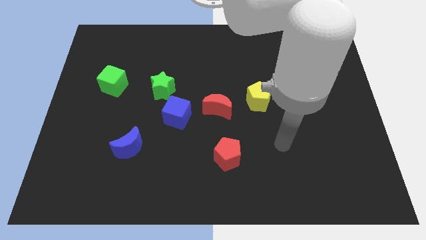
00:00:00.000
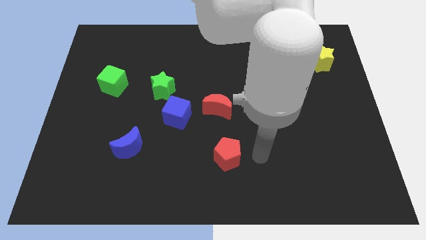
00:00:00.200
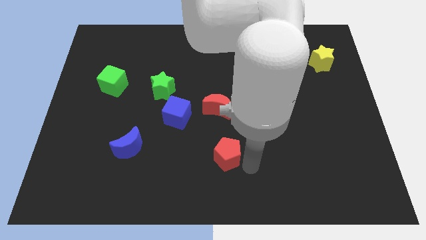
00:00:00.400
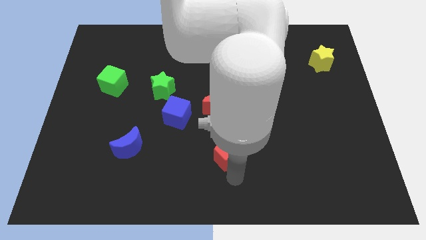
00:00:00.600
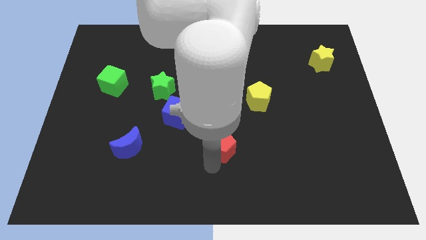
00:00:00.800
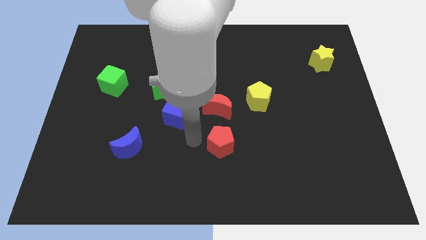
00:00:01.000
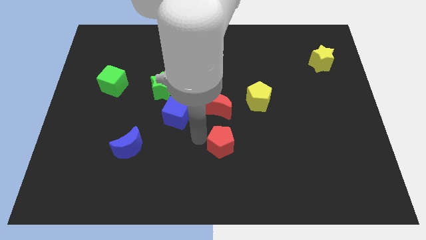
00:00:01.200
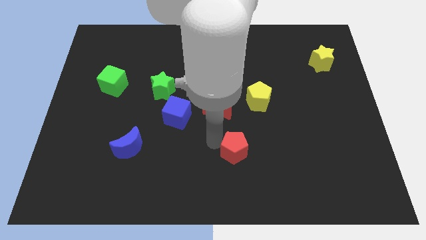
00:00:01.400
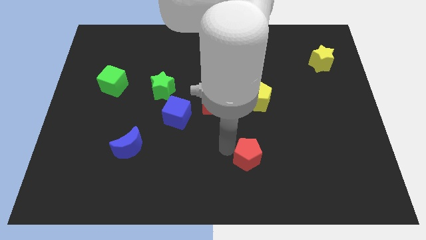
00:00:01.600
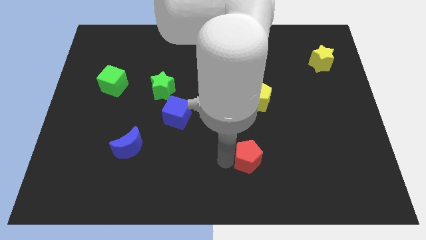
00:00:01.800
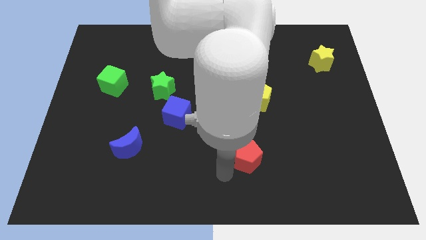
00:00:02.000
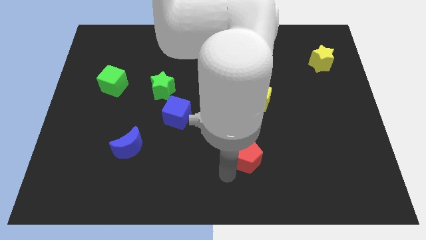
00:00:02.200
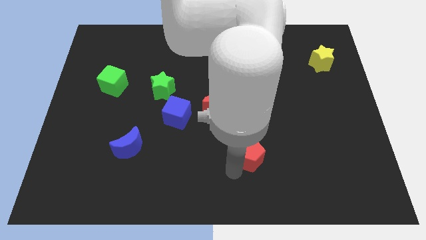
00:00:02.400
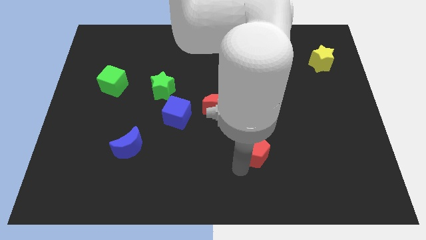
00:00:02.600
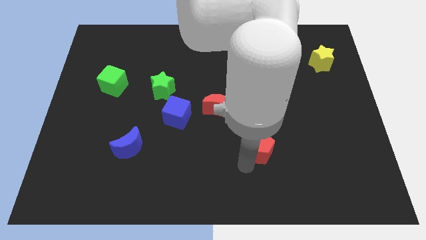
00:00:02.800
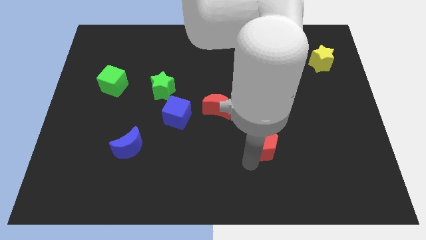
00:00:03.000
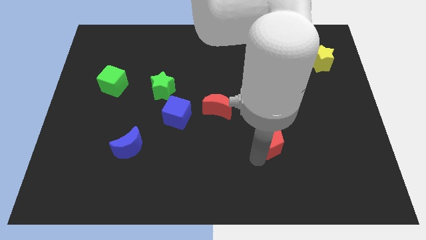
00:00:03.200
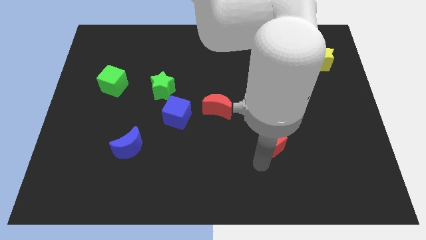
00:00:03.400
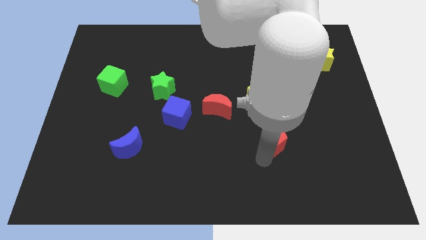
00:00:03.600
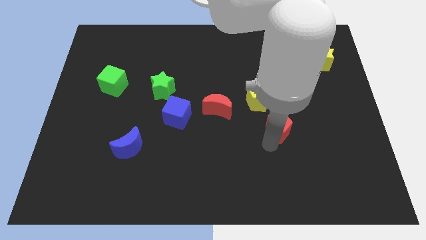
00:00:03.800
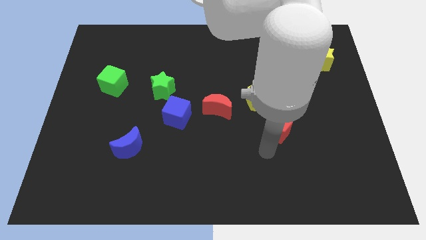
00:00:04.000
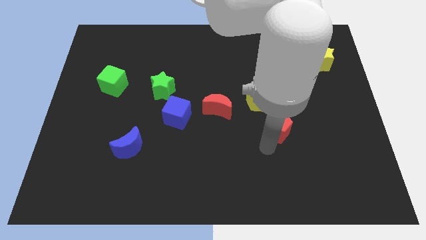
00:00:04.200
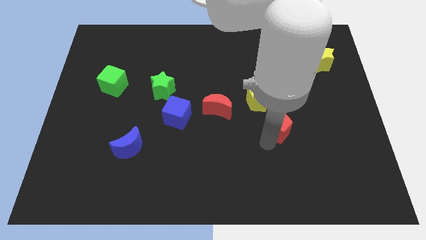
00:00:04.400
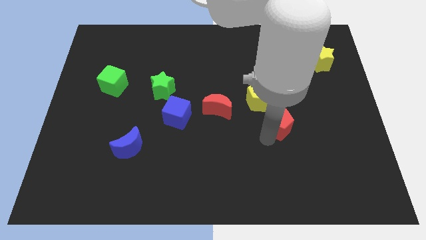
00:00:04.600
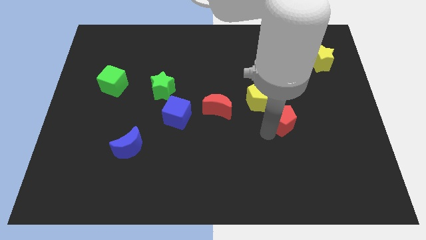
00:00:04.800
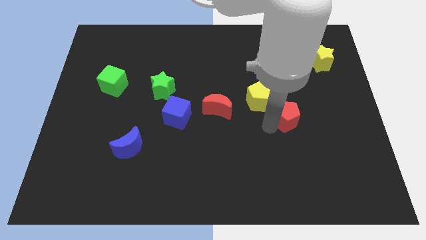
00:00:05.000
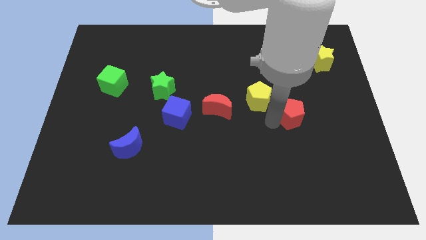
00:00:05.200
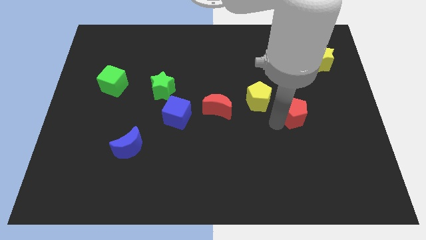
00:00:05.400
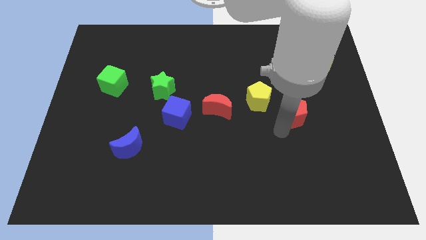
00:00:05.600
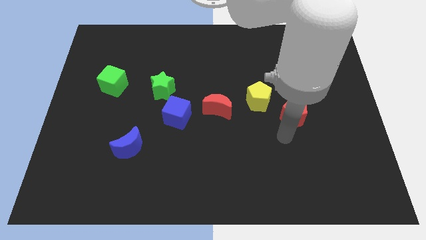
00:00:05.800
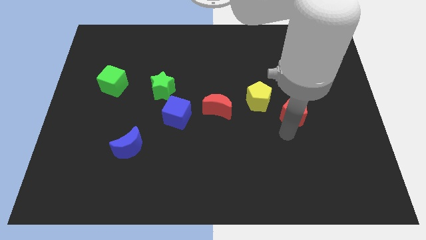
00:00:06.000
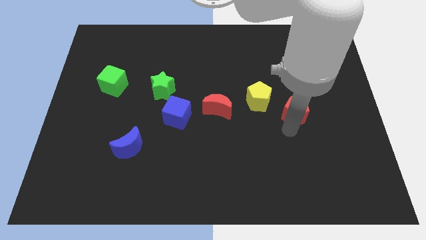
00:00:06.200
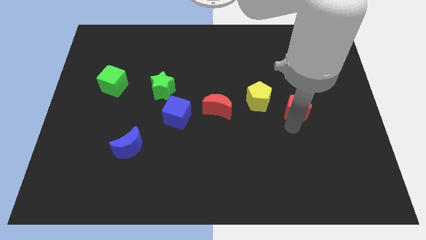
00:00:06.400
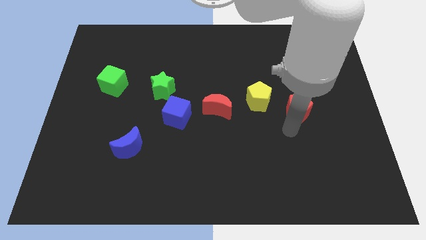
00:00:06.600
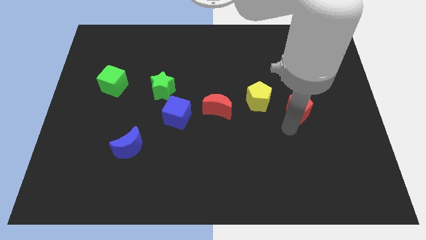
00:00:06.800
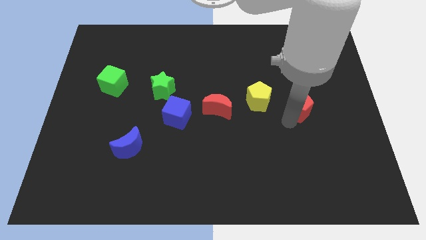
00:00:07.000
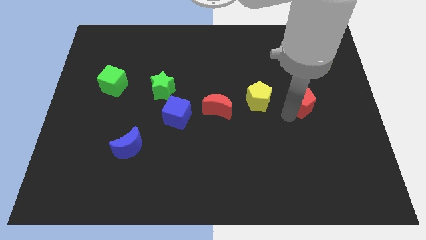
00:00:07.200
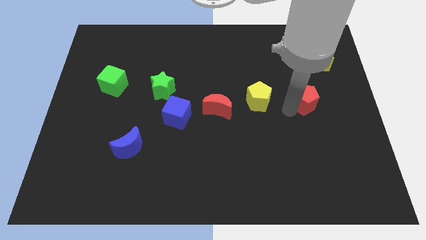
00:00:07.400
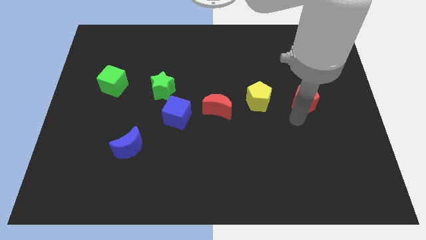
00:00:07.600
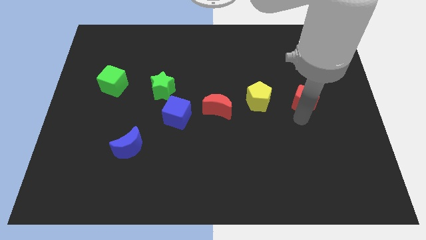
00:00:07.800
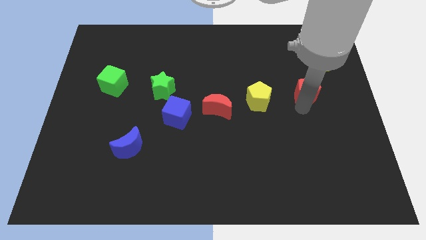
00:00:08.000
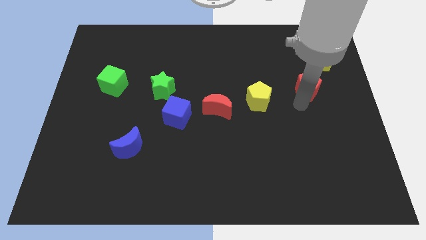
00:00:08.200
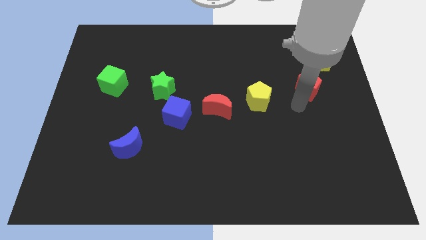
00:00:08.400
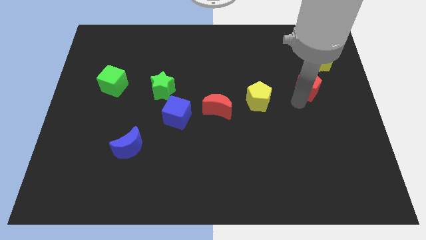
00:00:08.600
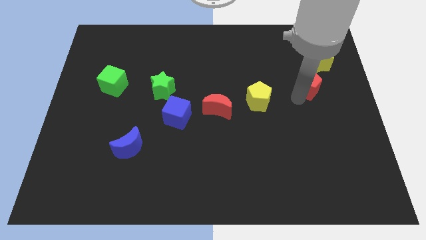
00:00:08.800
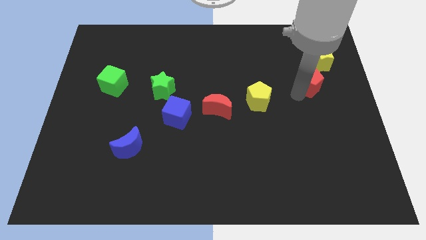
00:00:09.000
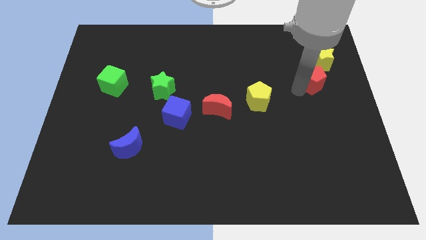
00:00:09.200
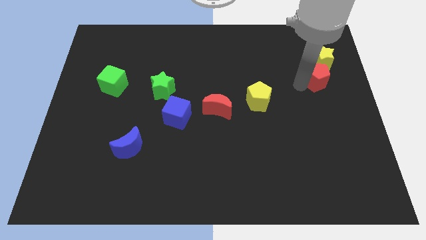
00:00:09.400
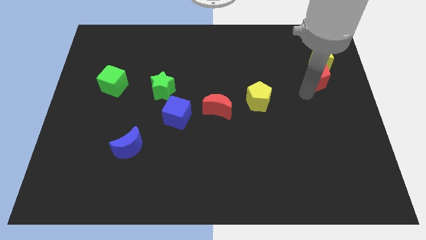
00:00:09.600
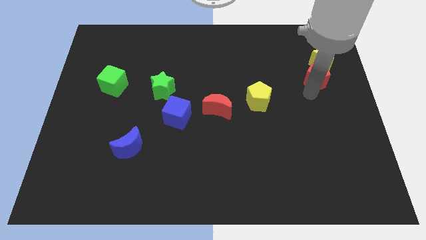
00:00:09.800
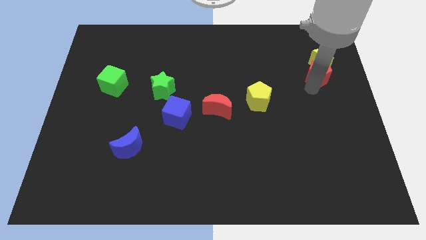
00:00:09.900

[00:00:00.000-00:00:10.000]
push the red pentagon towards the yellow star

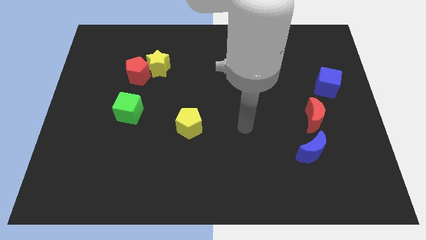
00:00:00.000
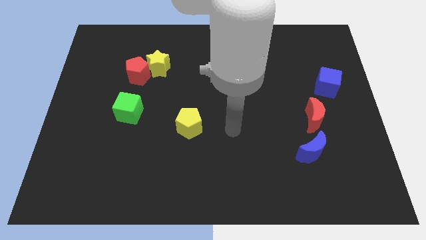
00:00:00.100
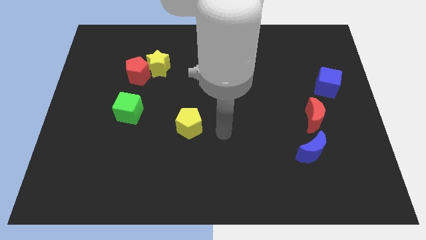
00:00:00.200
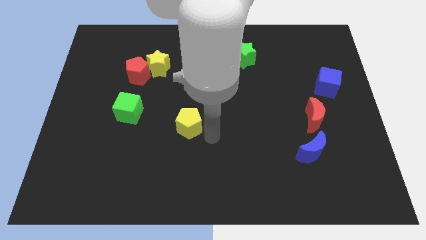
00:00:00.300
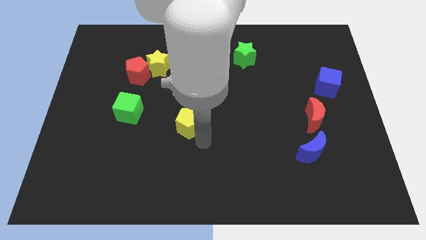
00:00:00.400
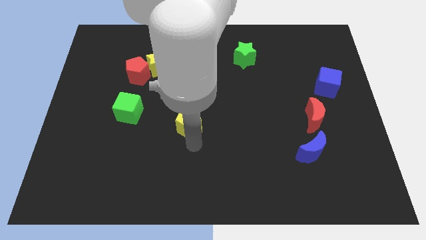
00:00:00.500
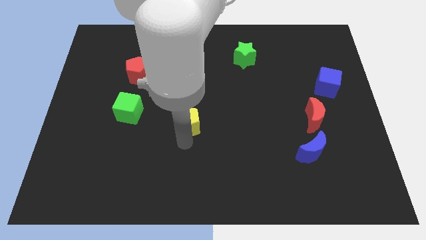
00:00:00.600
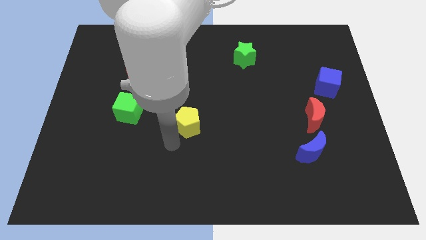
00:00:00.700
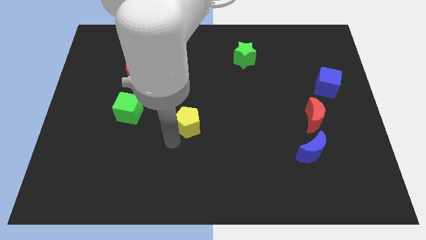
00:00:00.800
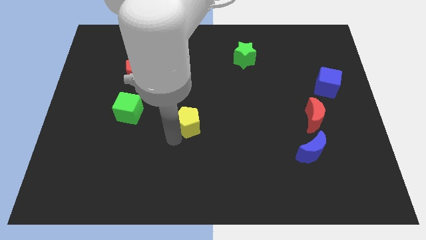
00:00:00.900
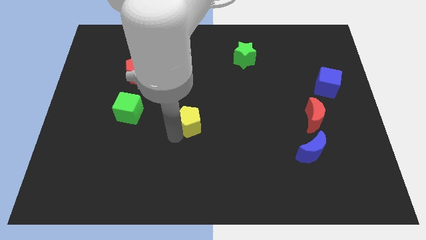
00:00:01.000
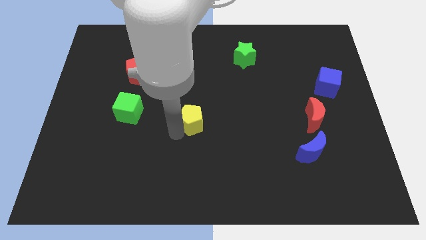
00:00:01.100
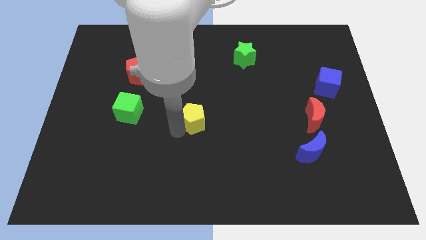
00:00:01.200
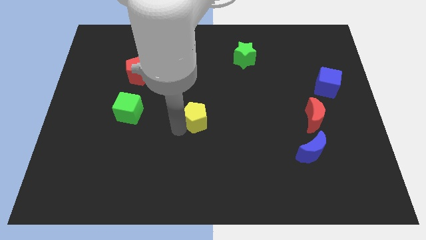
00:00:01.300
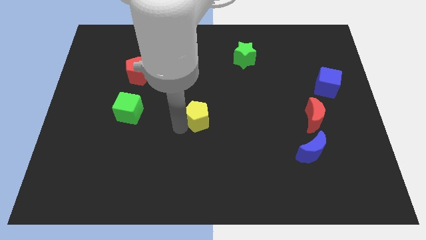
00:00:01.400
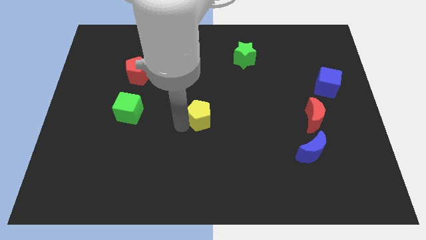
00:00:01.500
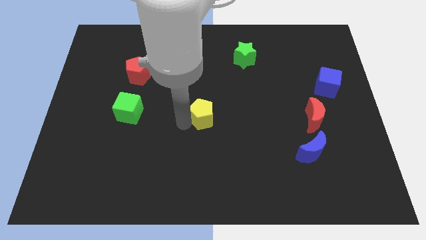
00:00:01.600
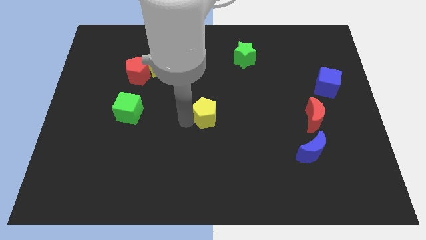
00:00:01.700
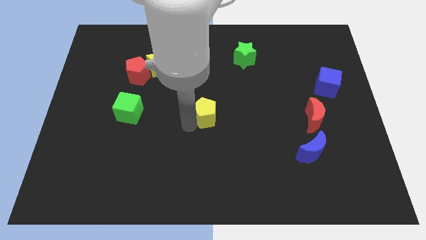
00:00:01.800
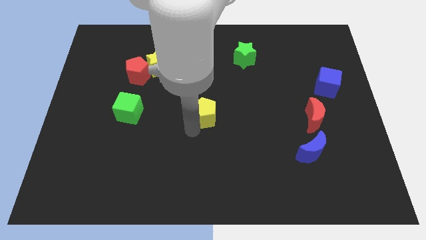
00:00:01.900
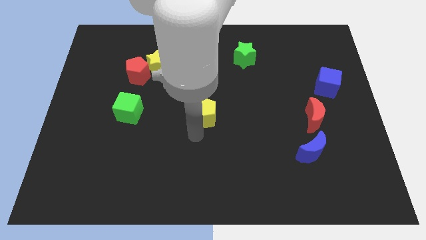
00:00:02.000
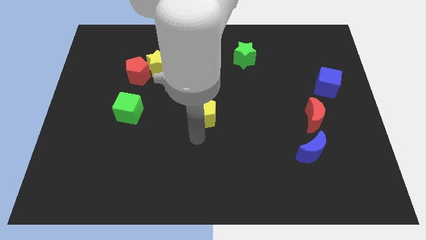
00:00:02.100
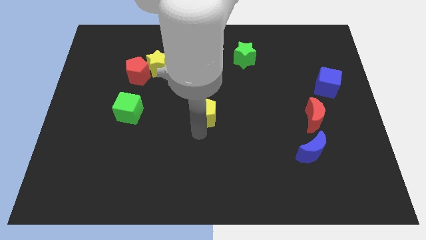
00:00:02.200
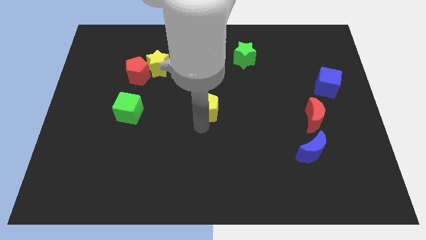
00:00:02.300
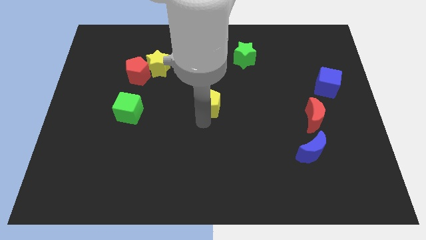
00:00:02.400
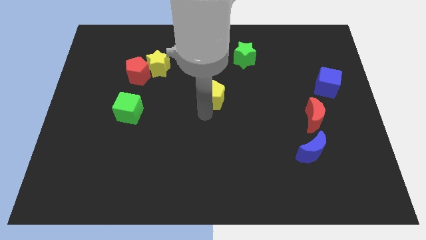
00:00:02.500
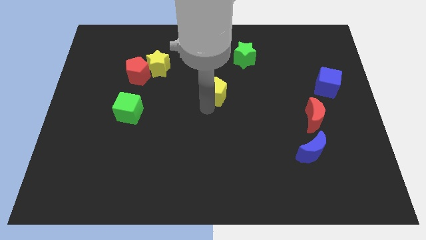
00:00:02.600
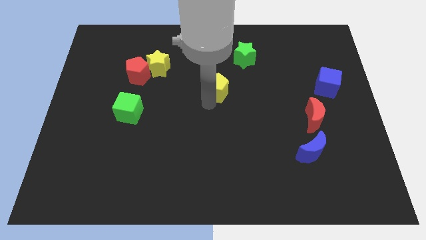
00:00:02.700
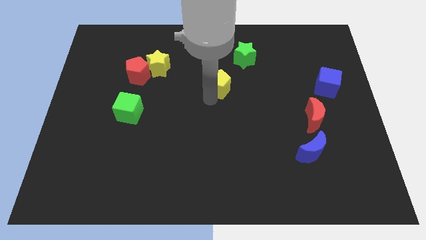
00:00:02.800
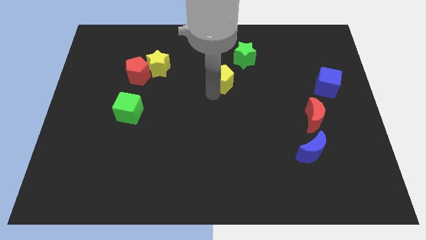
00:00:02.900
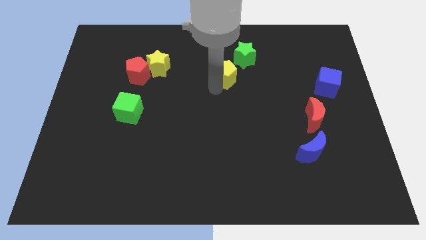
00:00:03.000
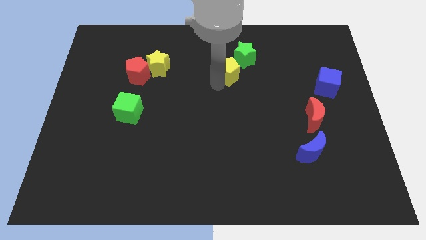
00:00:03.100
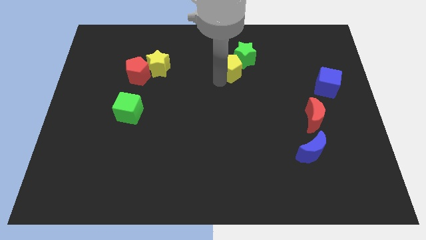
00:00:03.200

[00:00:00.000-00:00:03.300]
move the yellow pentagon next to the green star
